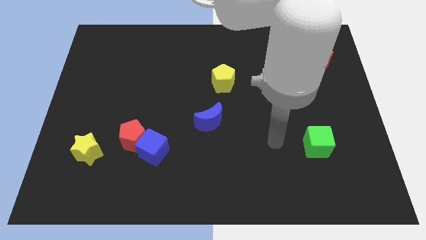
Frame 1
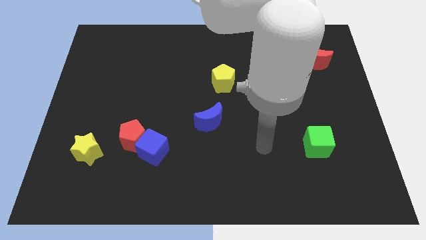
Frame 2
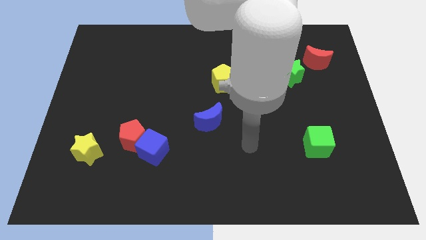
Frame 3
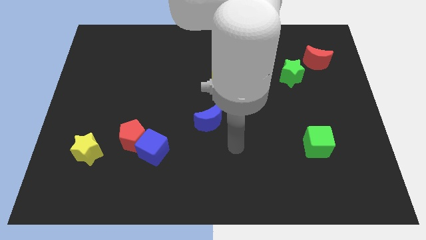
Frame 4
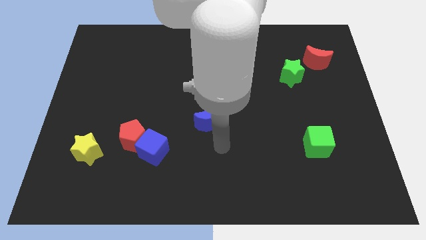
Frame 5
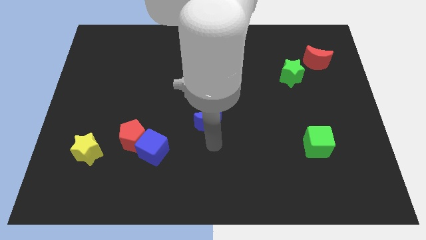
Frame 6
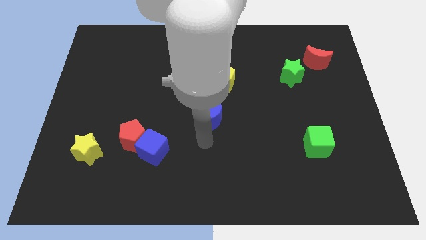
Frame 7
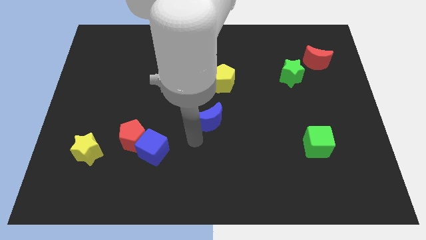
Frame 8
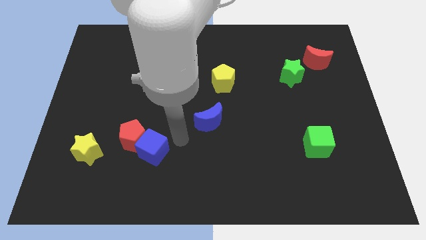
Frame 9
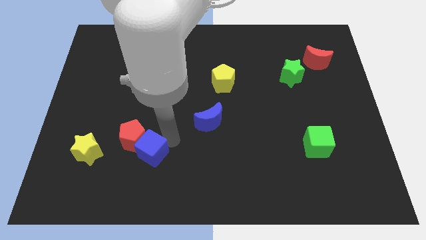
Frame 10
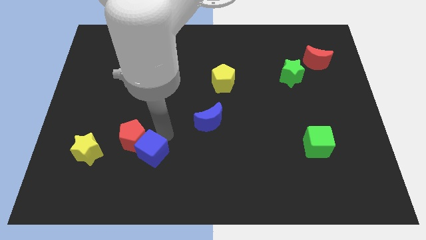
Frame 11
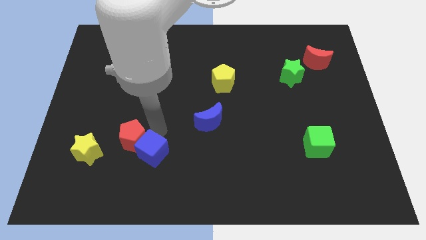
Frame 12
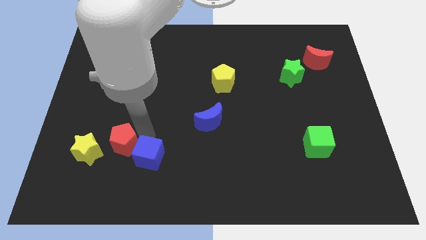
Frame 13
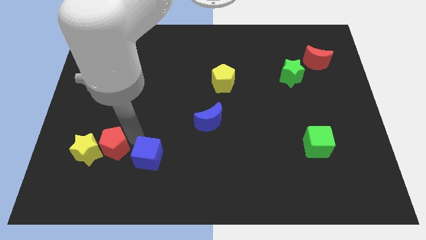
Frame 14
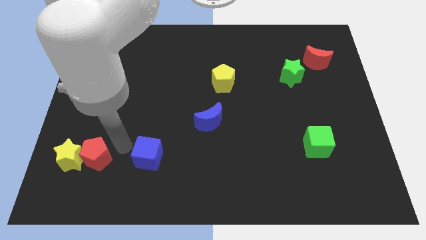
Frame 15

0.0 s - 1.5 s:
move the blue cube away from the red pentagon

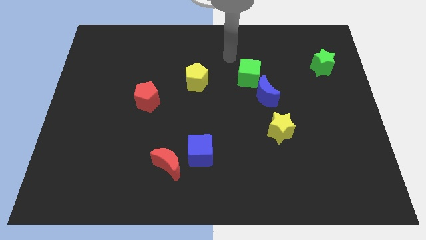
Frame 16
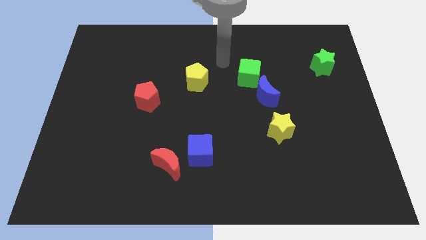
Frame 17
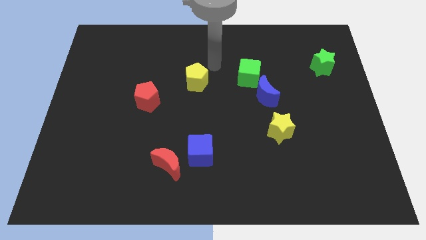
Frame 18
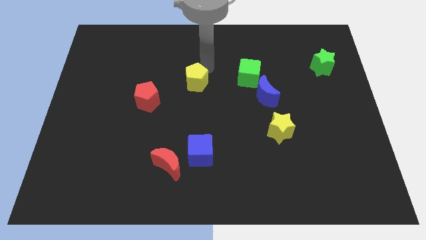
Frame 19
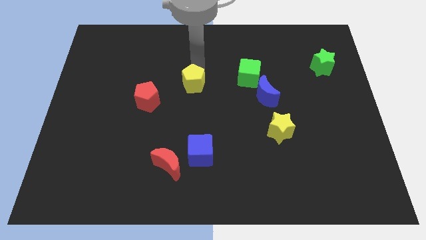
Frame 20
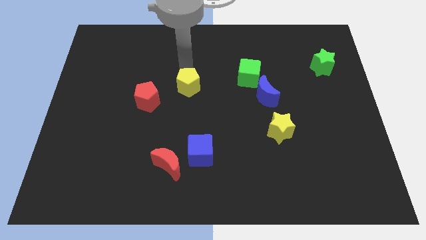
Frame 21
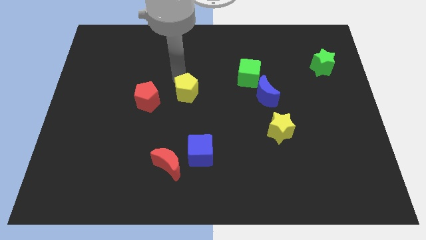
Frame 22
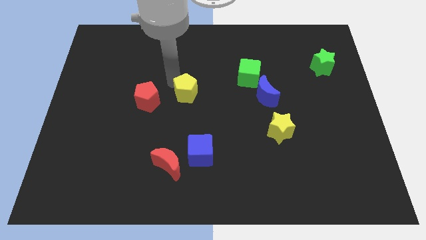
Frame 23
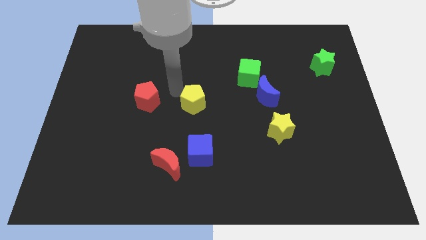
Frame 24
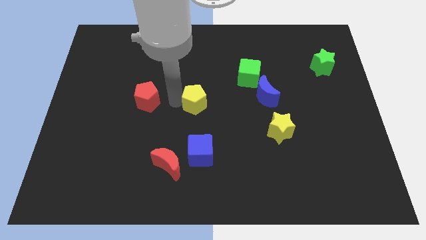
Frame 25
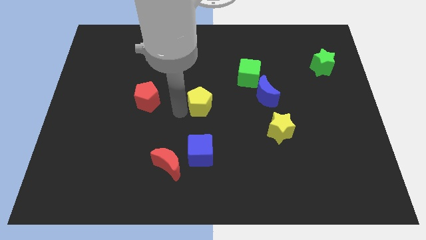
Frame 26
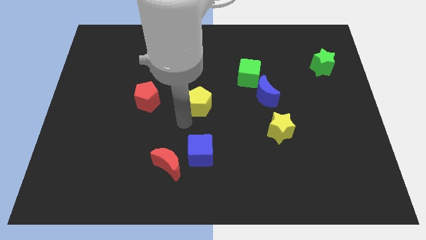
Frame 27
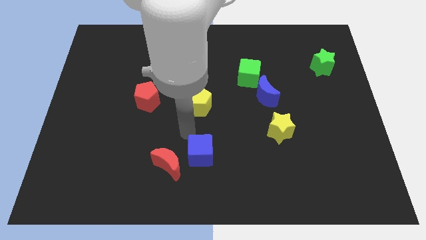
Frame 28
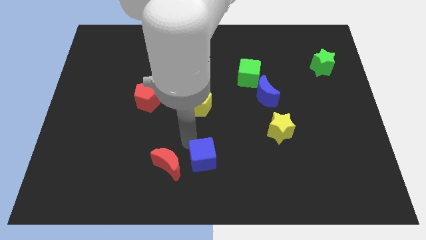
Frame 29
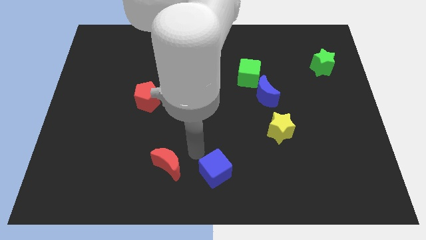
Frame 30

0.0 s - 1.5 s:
pull the red moon apart from the blue cube

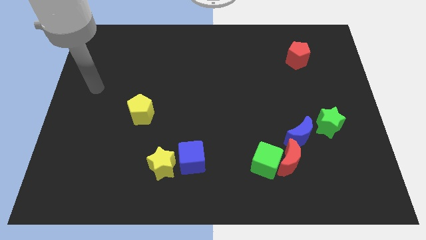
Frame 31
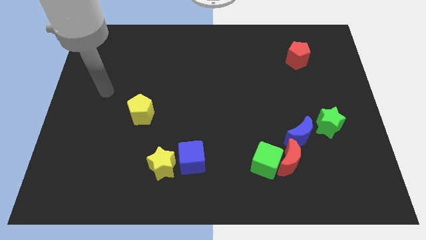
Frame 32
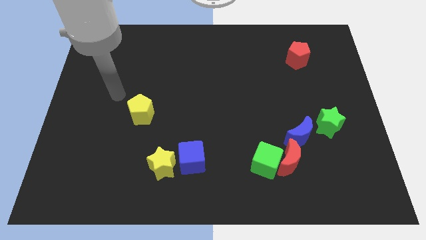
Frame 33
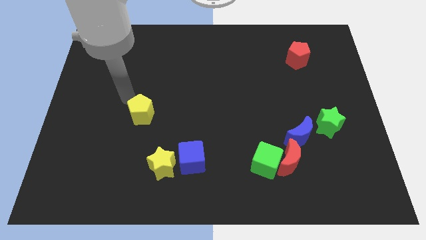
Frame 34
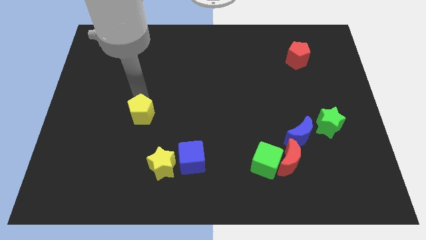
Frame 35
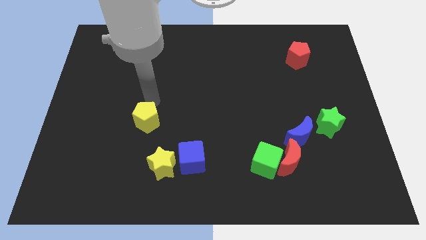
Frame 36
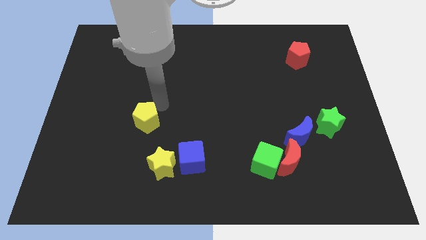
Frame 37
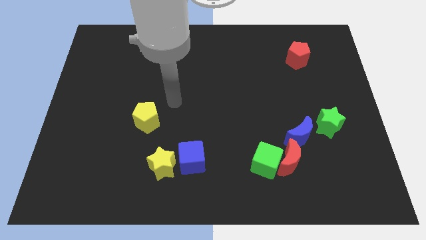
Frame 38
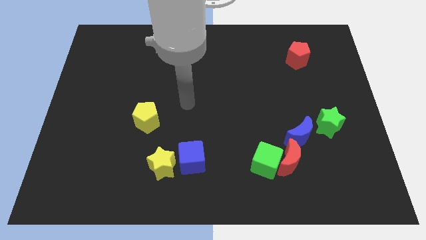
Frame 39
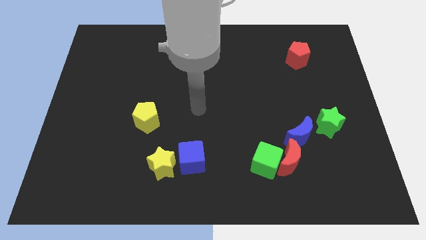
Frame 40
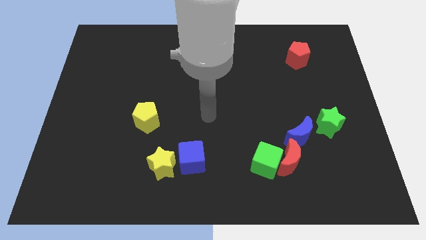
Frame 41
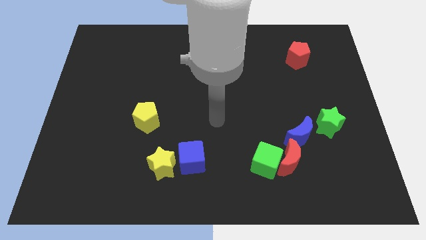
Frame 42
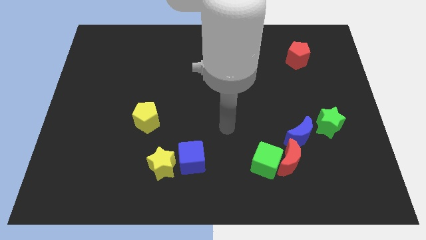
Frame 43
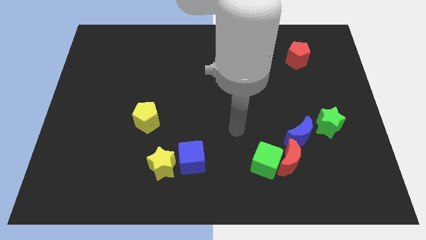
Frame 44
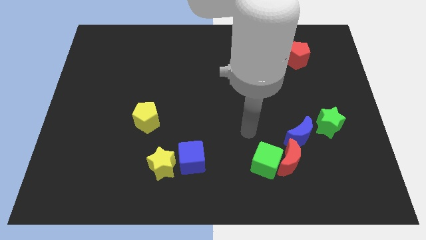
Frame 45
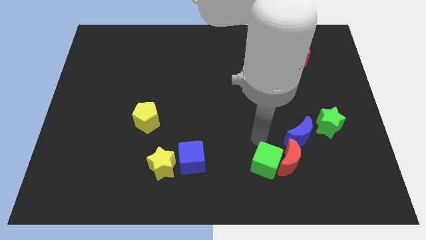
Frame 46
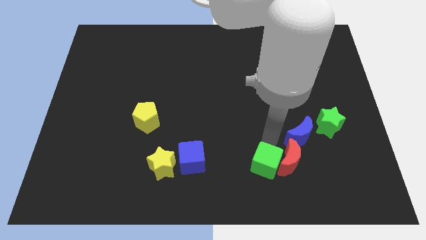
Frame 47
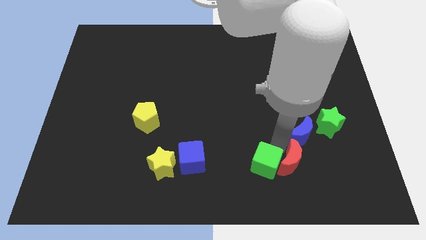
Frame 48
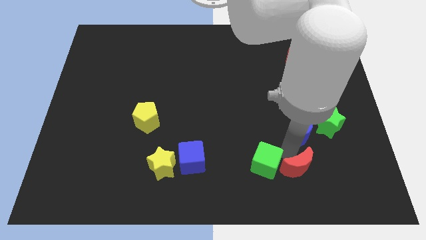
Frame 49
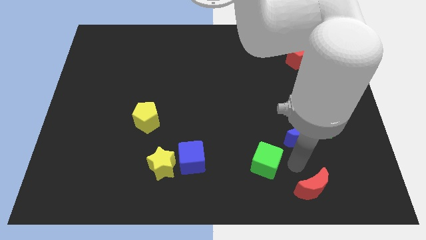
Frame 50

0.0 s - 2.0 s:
move the green cube away from the red moon

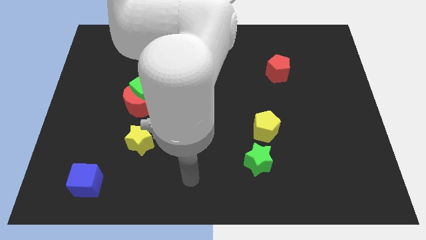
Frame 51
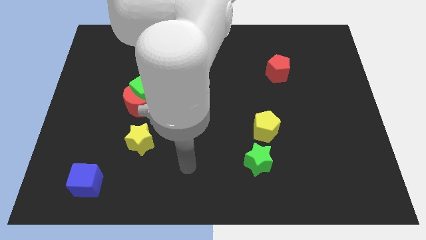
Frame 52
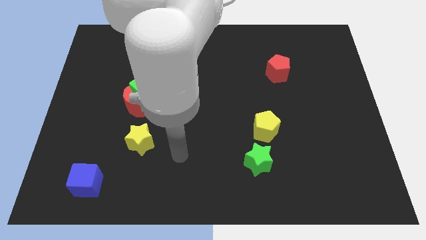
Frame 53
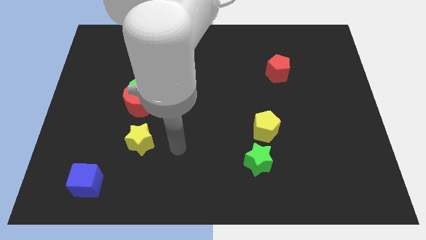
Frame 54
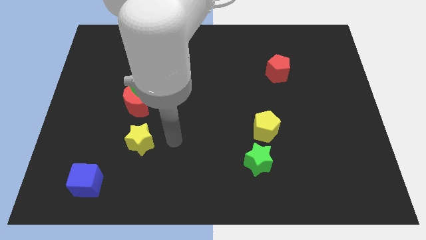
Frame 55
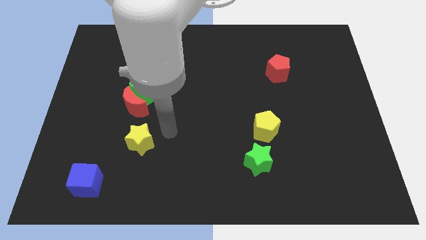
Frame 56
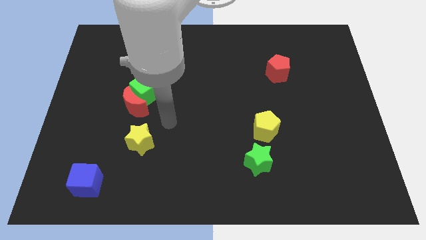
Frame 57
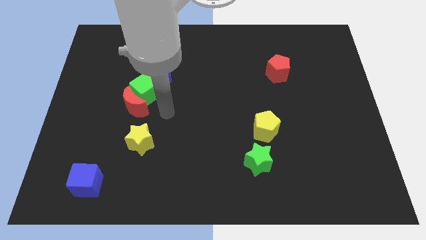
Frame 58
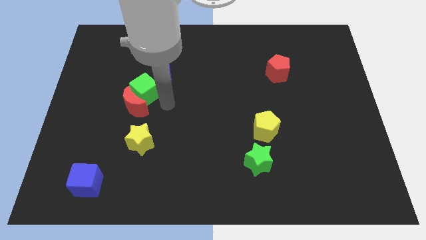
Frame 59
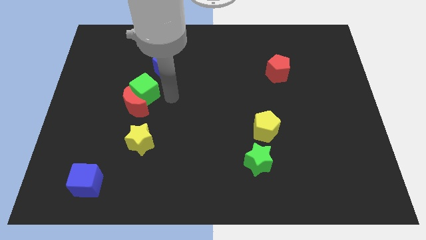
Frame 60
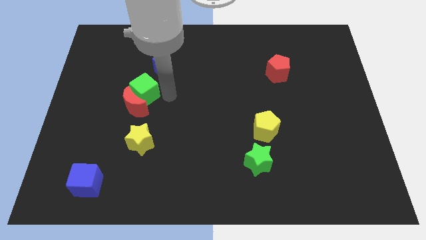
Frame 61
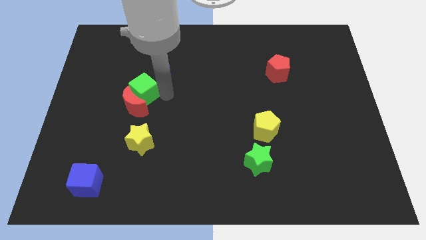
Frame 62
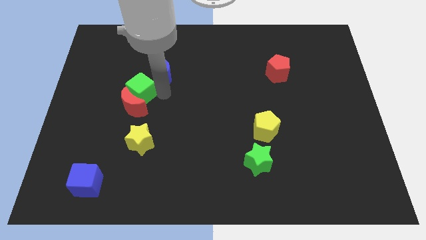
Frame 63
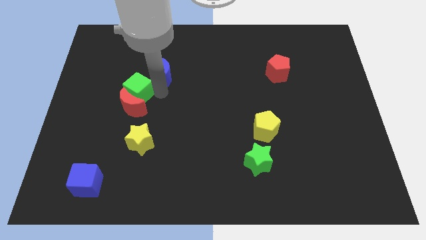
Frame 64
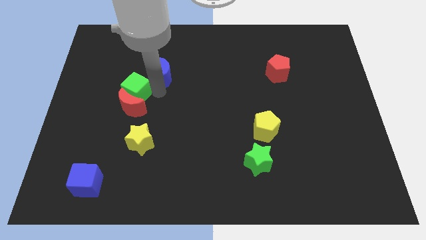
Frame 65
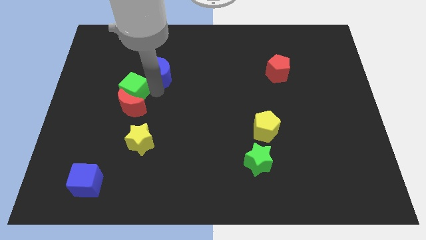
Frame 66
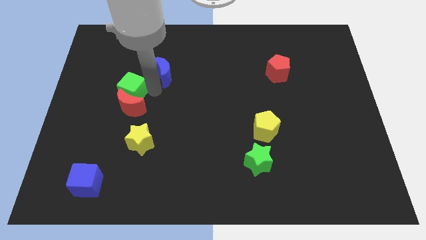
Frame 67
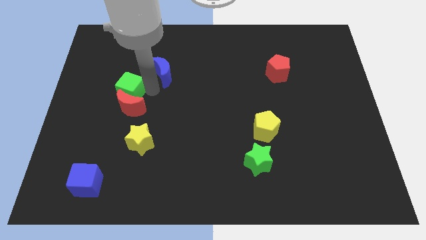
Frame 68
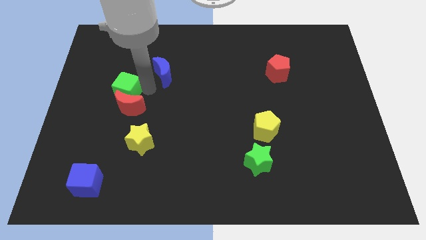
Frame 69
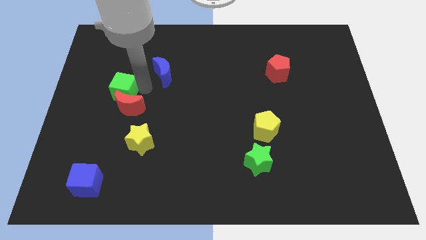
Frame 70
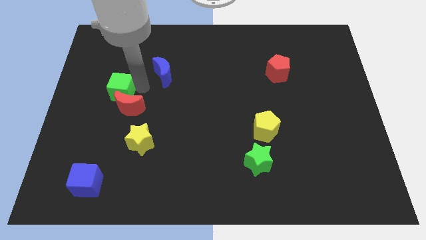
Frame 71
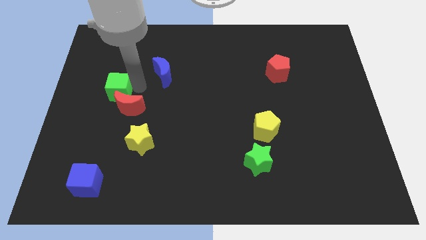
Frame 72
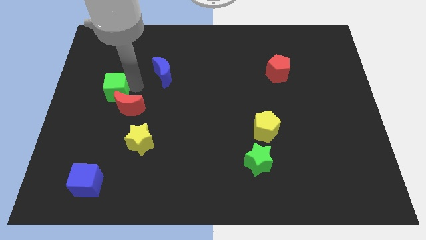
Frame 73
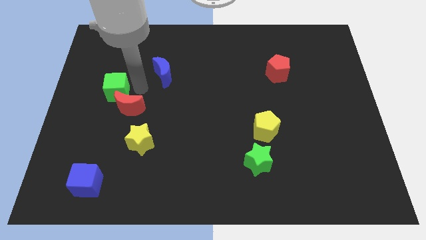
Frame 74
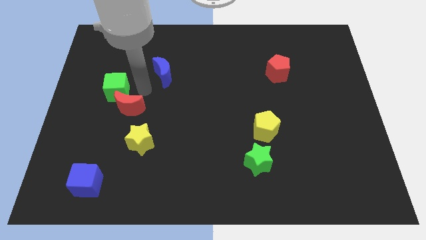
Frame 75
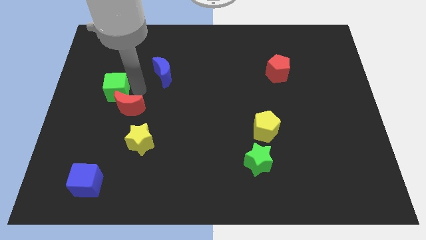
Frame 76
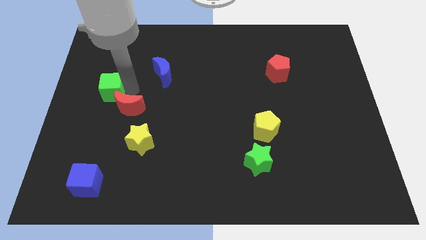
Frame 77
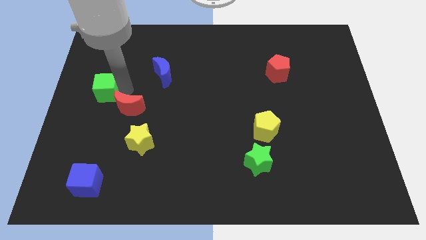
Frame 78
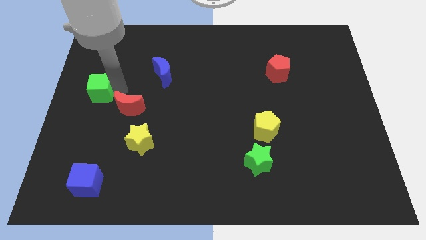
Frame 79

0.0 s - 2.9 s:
separate the green cube from the red moon and blue moon

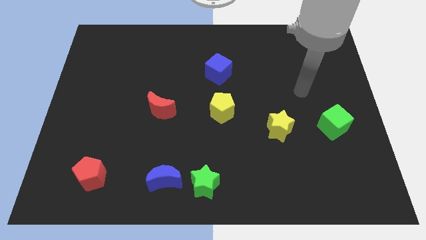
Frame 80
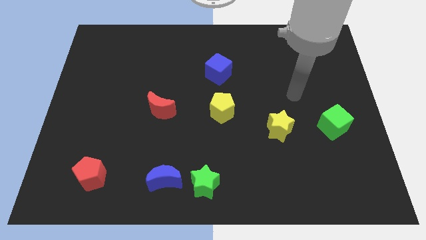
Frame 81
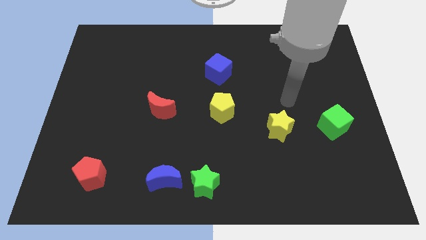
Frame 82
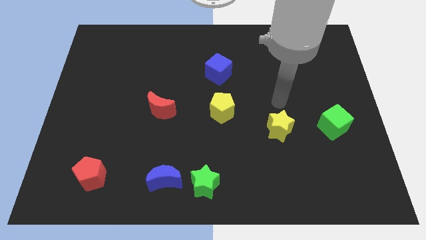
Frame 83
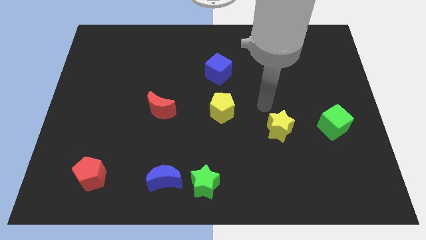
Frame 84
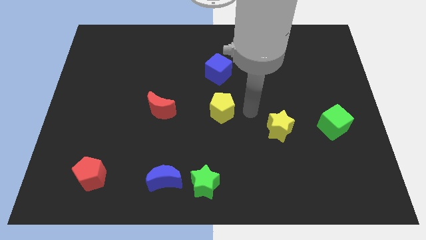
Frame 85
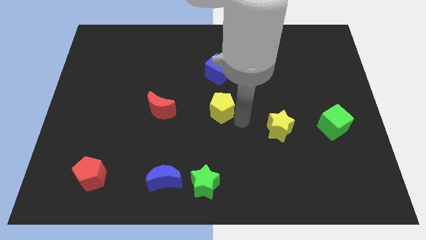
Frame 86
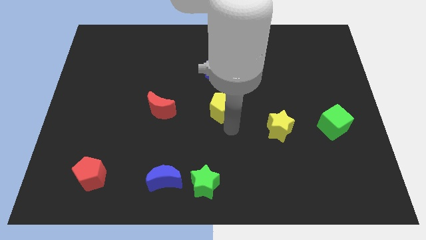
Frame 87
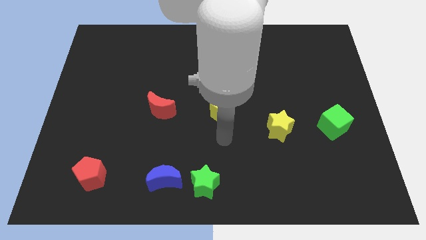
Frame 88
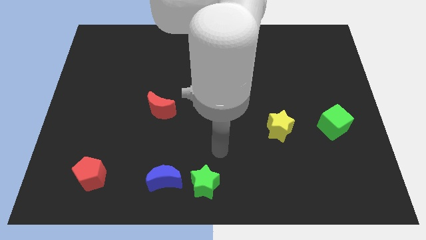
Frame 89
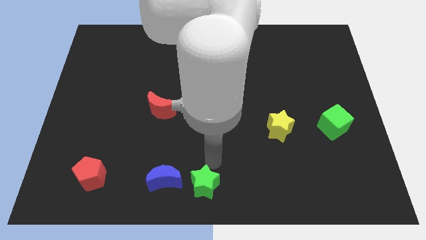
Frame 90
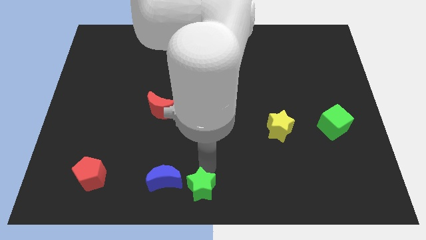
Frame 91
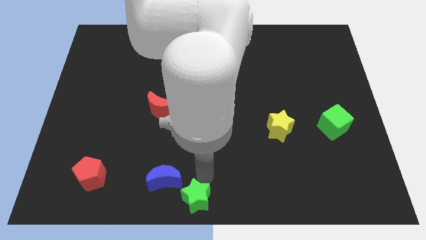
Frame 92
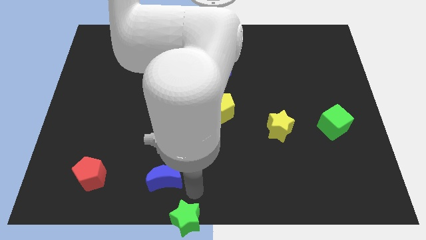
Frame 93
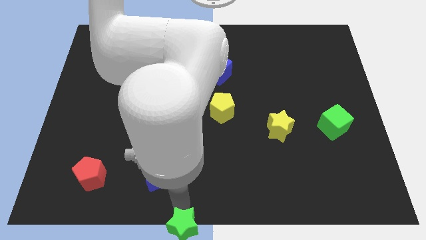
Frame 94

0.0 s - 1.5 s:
separate the blue moon from the green star
